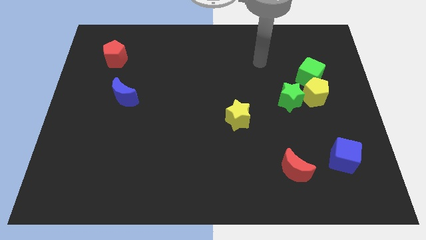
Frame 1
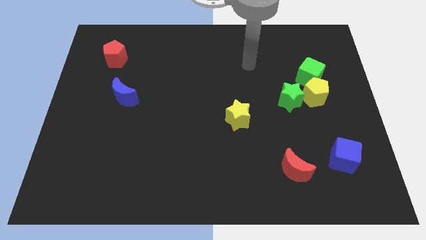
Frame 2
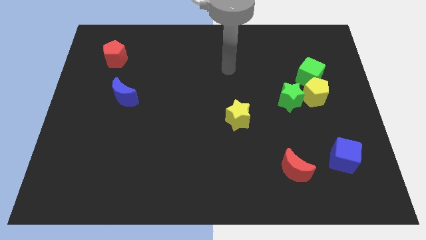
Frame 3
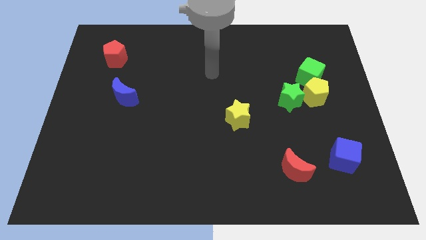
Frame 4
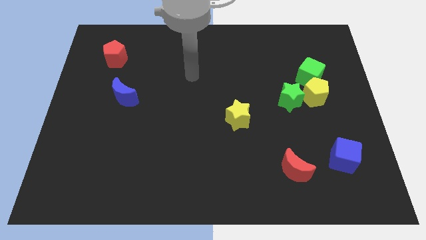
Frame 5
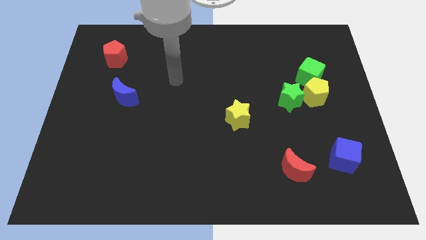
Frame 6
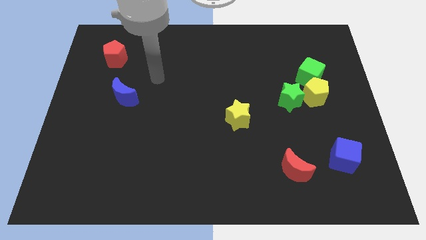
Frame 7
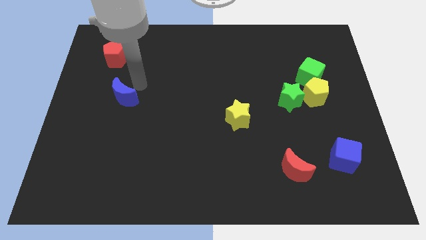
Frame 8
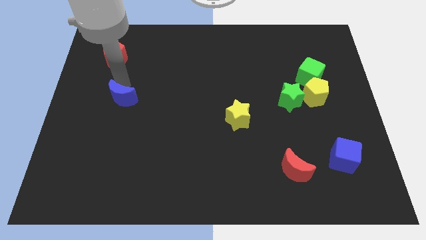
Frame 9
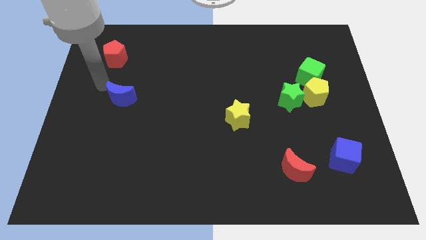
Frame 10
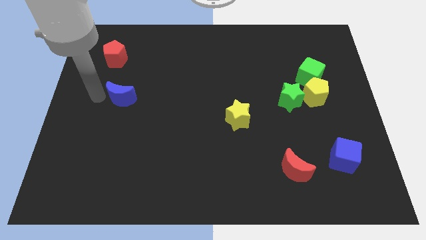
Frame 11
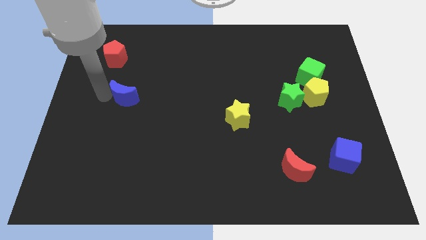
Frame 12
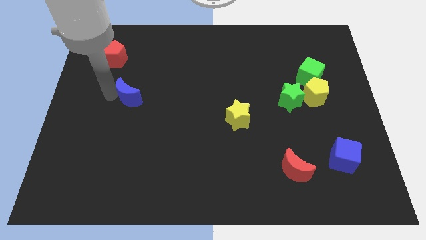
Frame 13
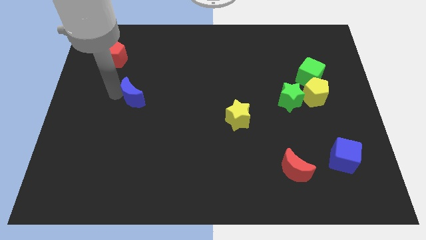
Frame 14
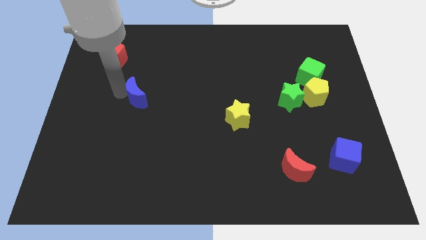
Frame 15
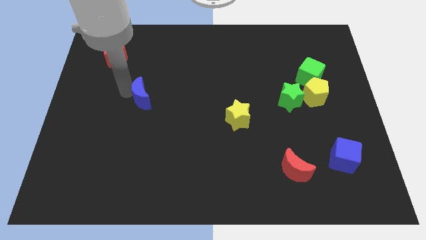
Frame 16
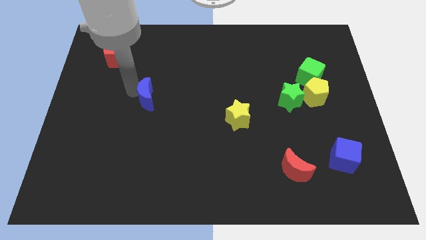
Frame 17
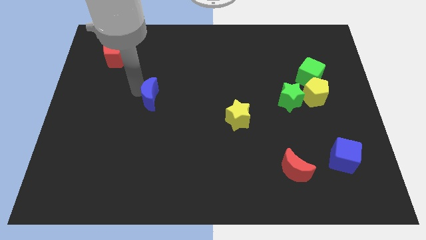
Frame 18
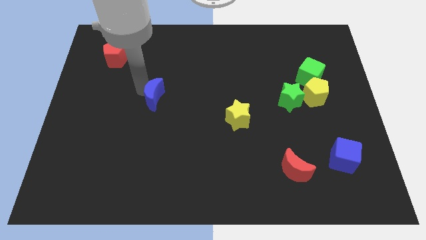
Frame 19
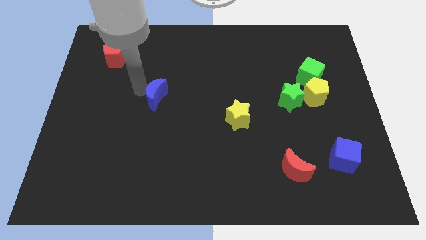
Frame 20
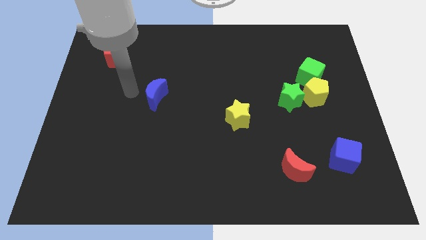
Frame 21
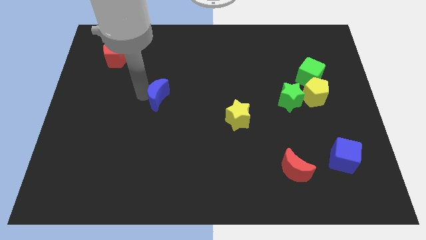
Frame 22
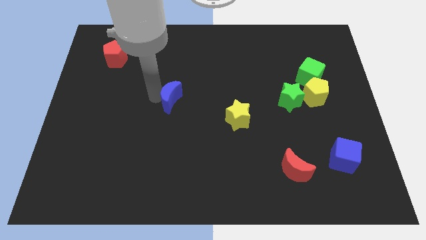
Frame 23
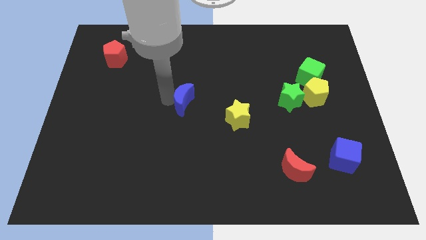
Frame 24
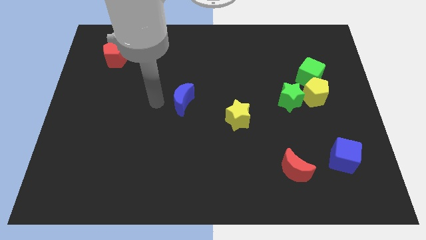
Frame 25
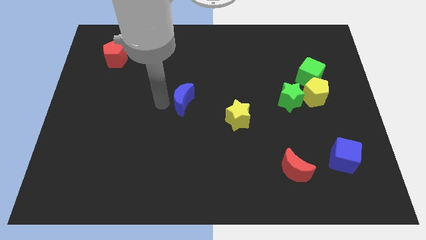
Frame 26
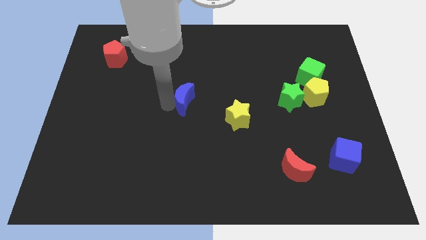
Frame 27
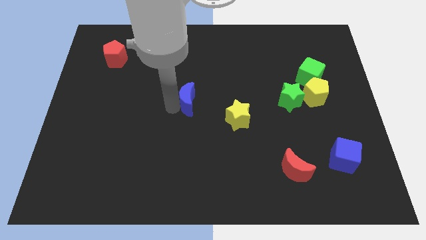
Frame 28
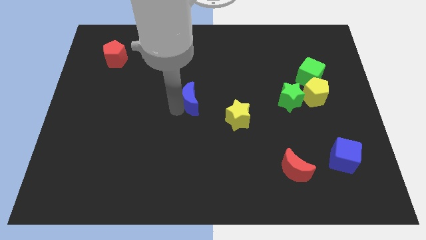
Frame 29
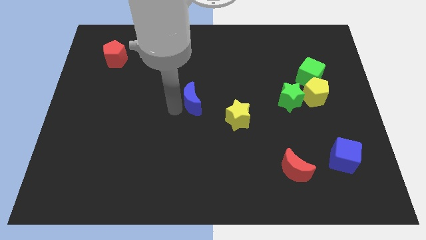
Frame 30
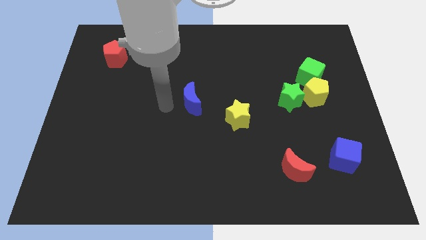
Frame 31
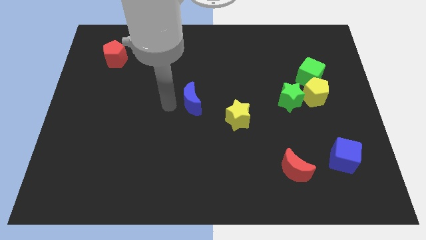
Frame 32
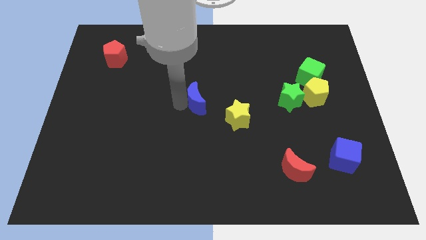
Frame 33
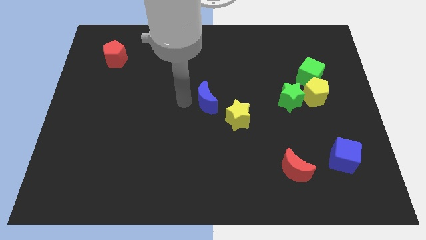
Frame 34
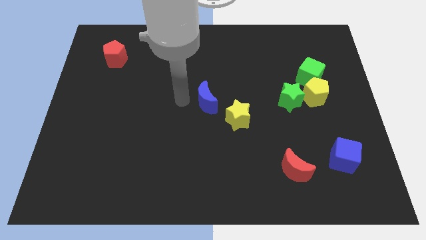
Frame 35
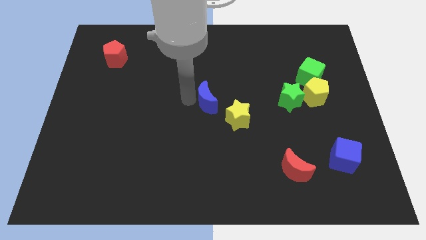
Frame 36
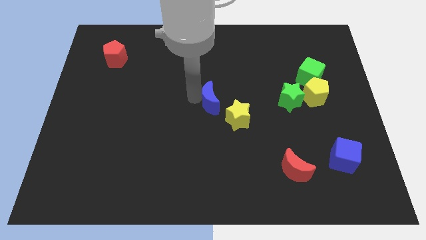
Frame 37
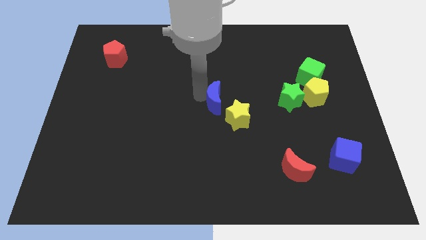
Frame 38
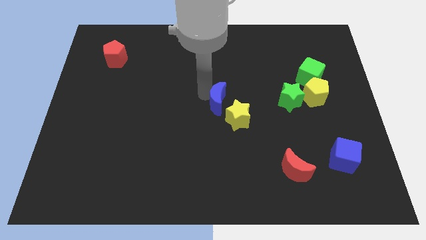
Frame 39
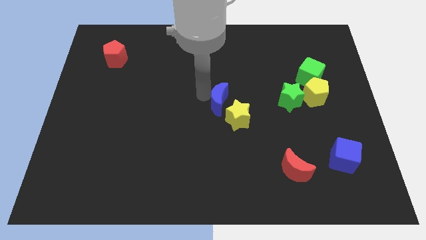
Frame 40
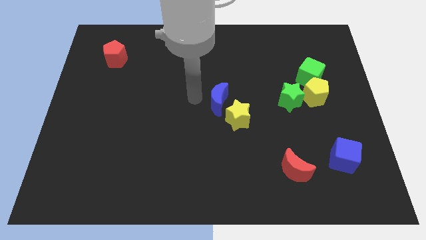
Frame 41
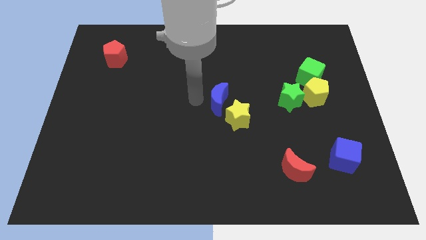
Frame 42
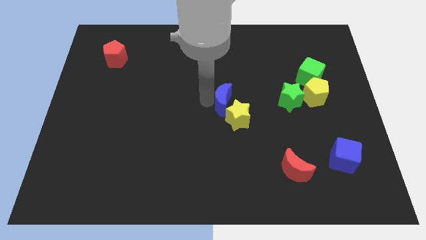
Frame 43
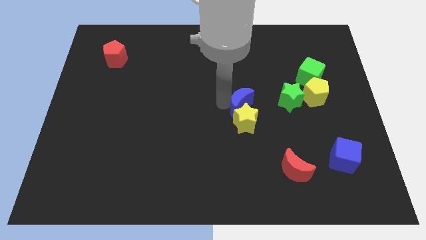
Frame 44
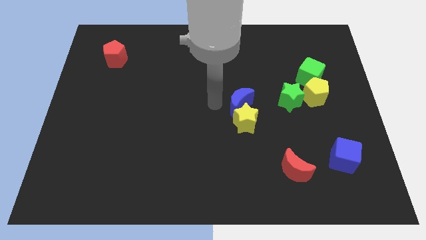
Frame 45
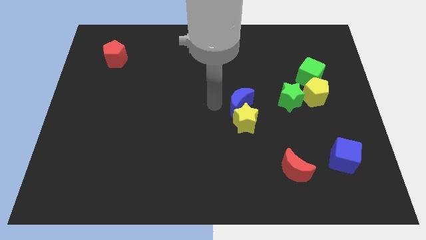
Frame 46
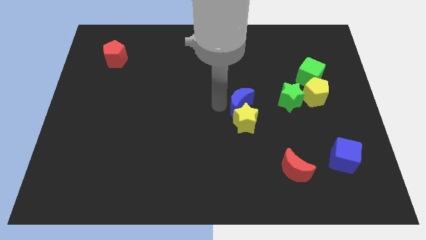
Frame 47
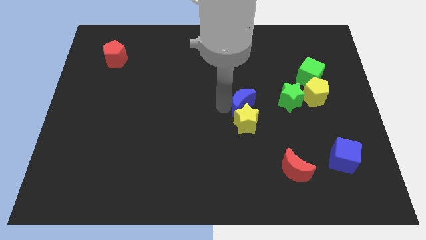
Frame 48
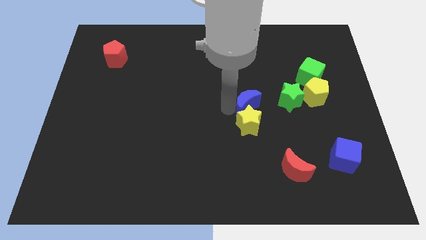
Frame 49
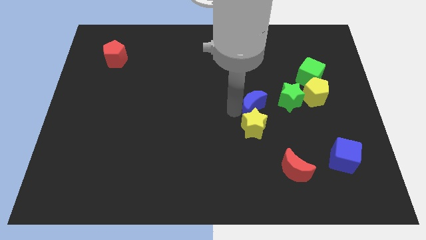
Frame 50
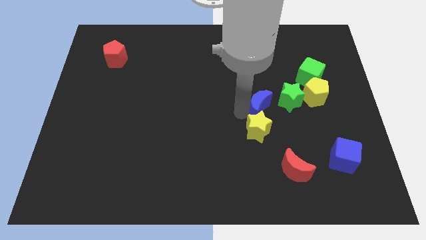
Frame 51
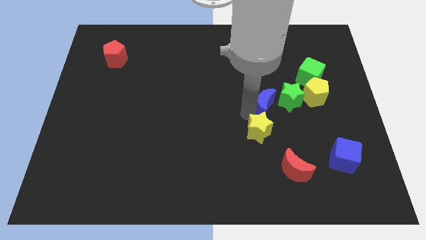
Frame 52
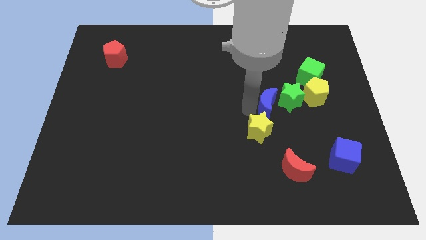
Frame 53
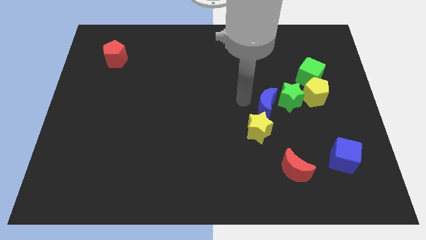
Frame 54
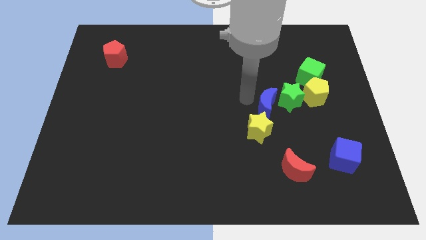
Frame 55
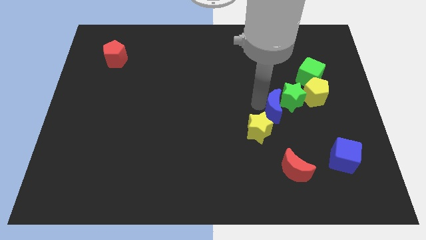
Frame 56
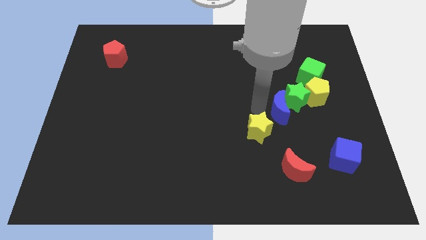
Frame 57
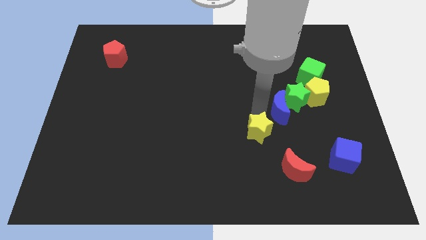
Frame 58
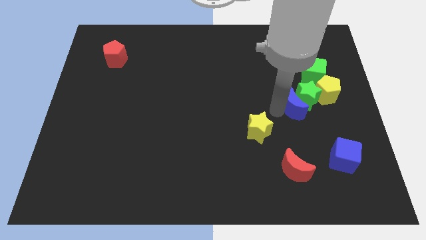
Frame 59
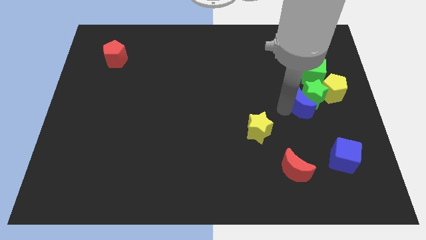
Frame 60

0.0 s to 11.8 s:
slide the blue moon to the bottom side of the green cube

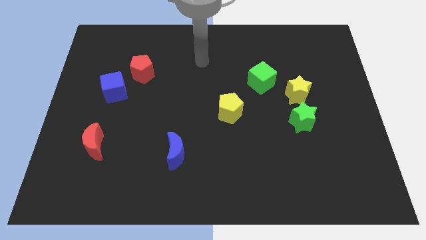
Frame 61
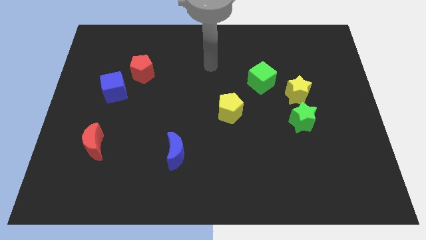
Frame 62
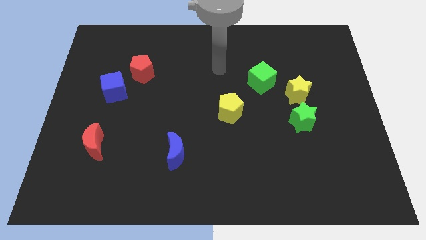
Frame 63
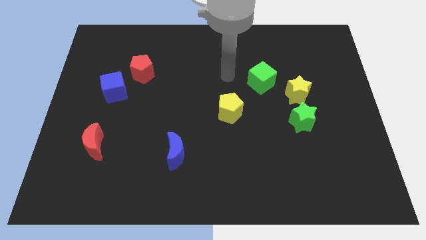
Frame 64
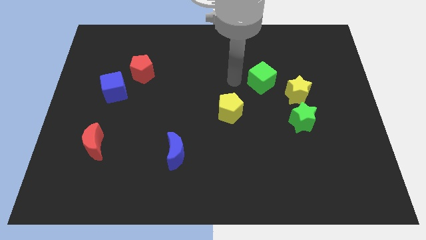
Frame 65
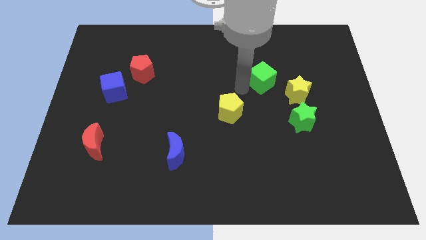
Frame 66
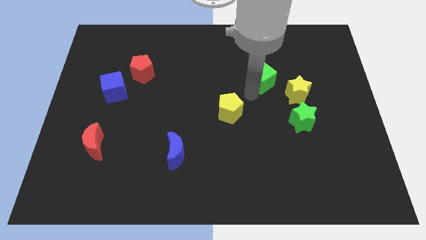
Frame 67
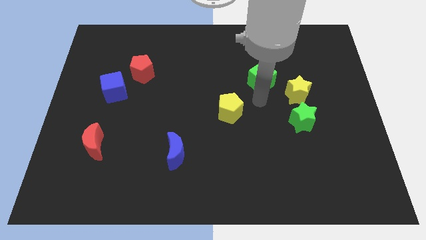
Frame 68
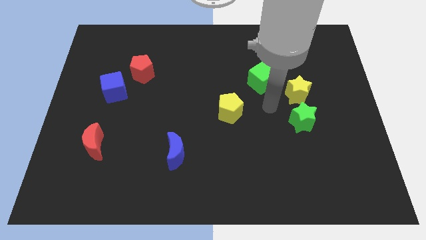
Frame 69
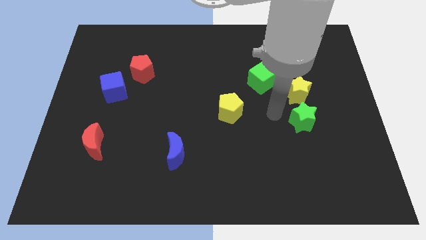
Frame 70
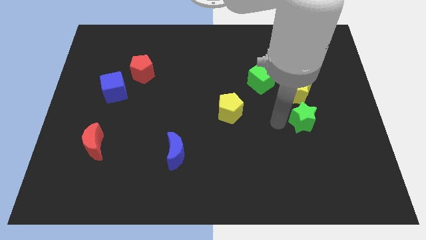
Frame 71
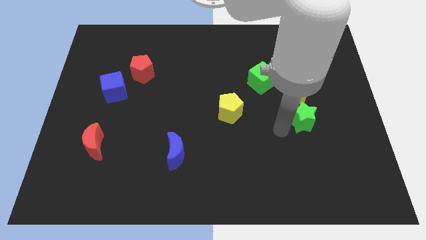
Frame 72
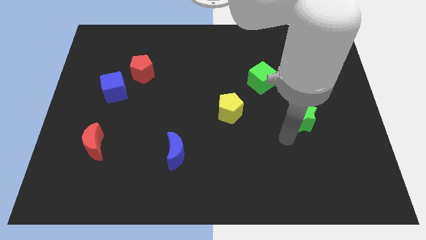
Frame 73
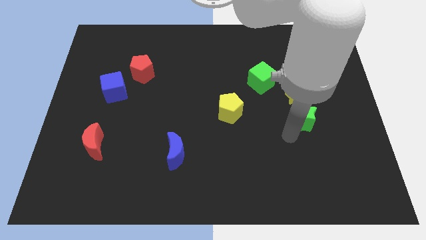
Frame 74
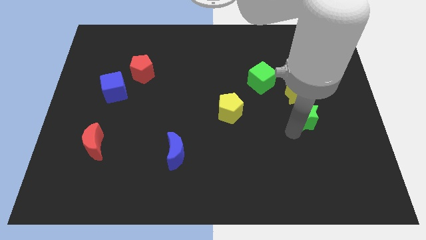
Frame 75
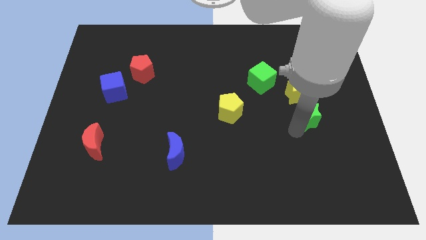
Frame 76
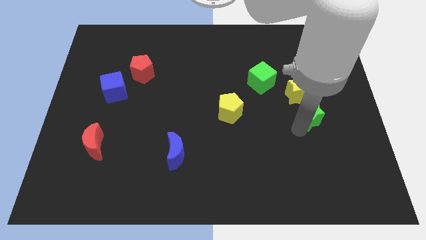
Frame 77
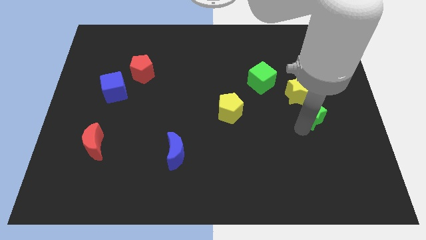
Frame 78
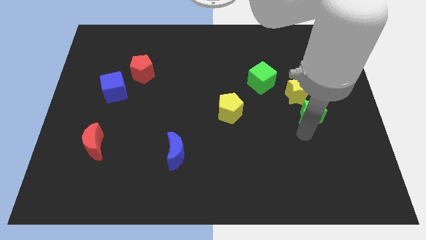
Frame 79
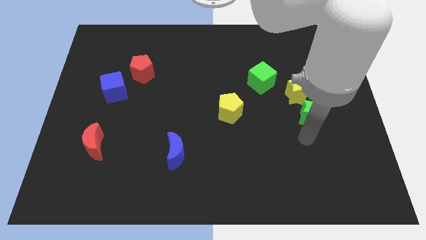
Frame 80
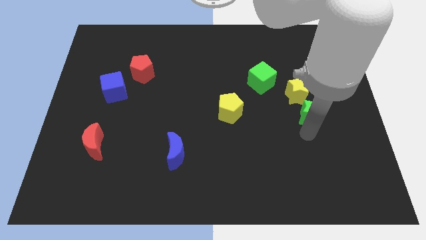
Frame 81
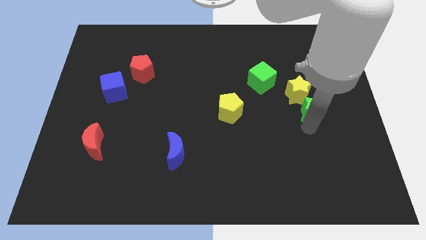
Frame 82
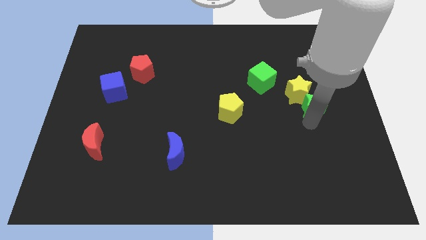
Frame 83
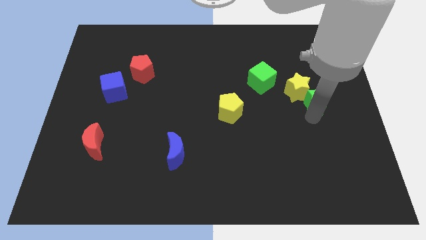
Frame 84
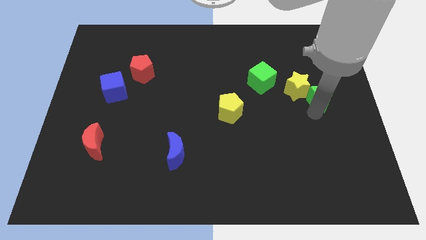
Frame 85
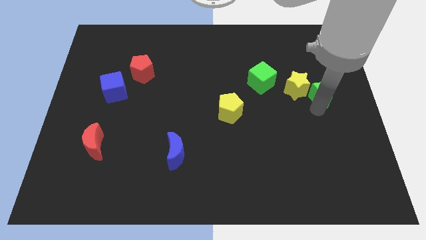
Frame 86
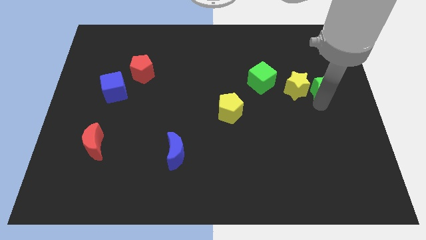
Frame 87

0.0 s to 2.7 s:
slide the green star to the top right of the yellow star
